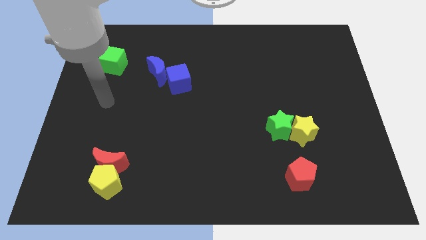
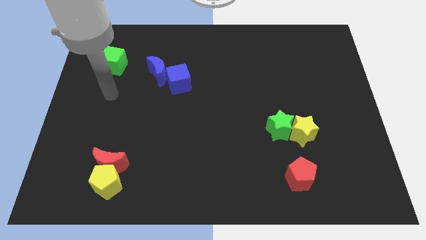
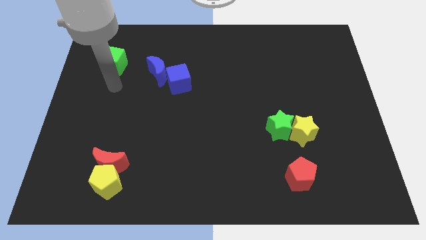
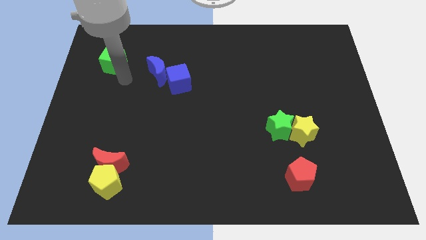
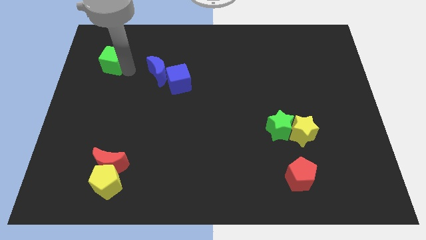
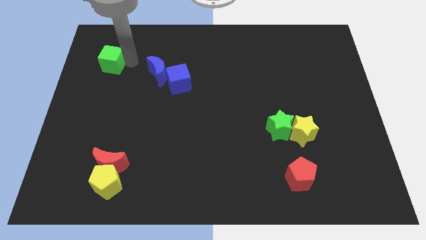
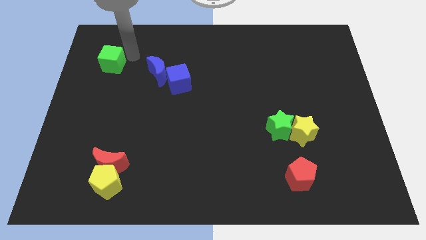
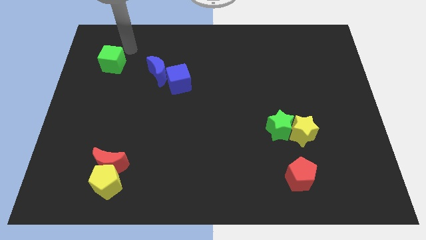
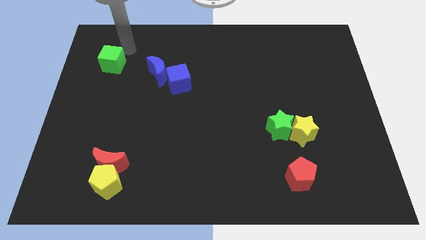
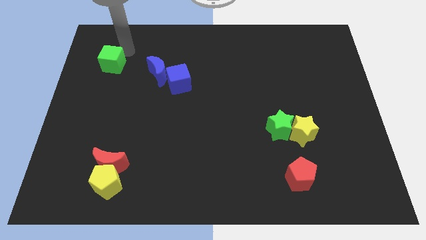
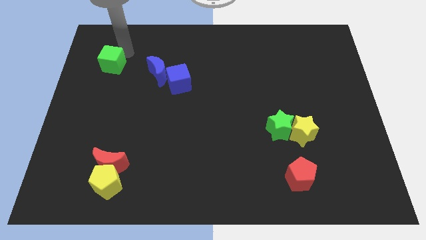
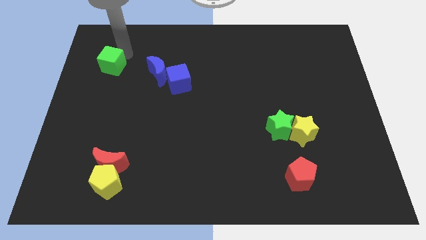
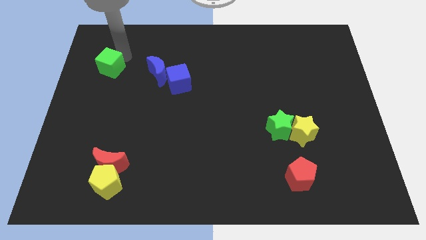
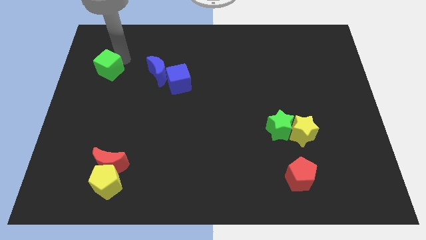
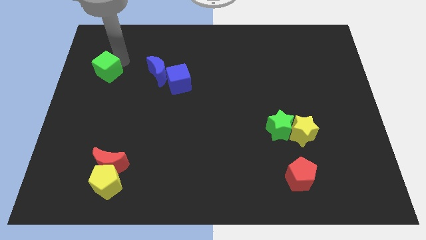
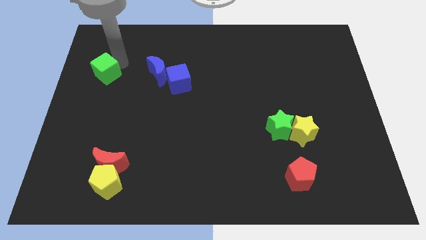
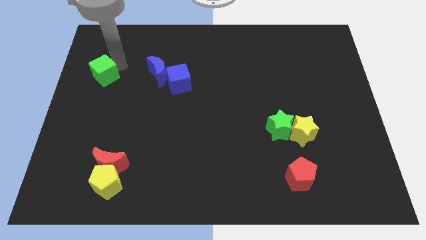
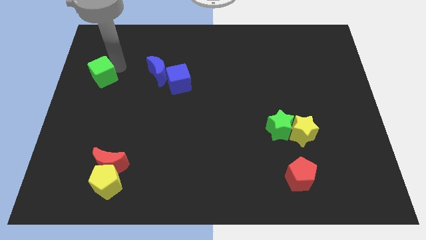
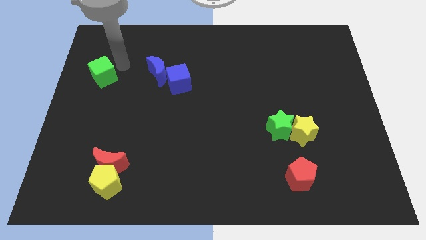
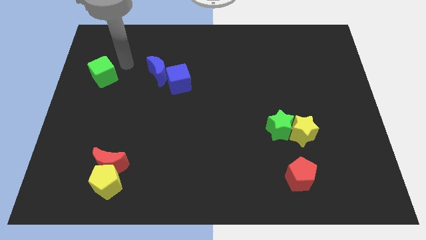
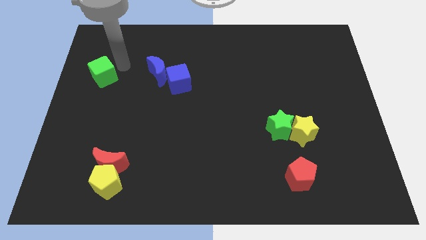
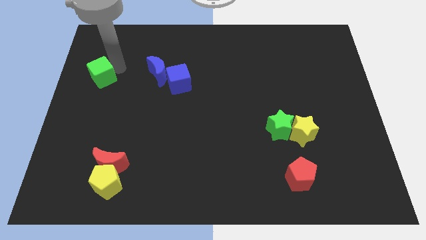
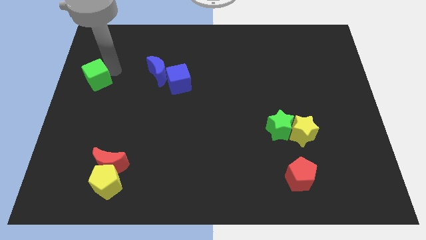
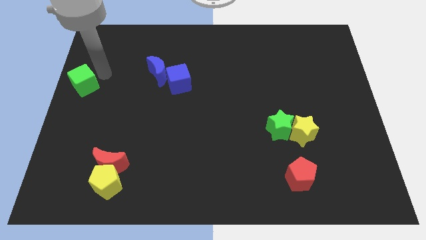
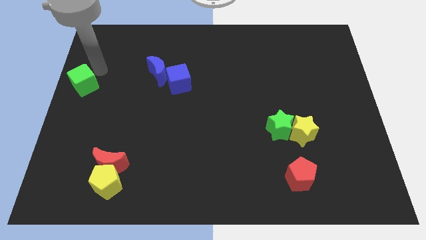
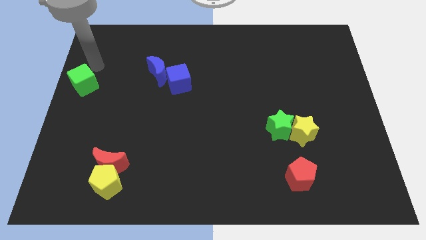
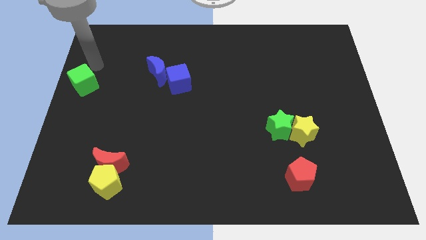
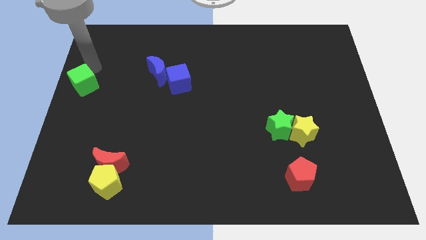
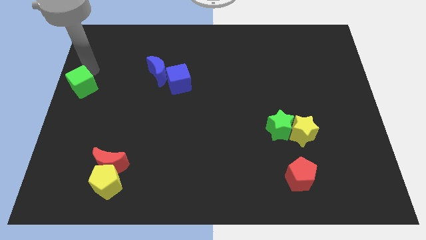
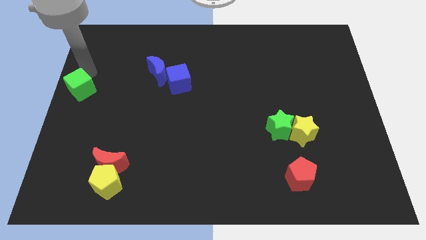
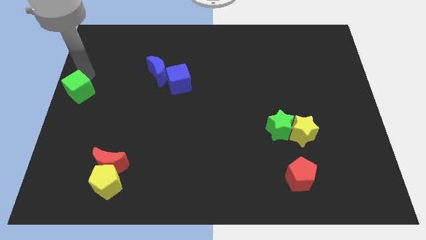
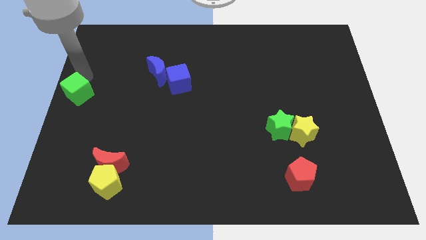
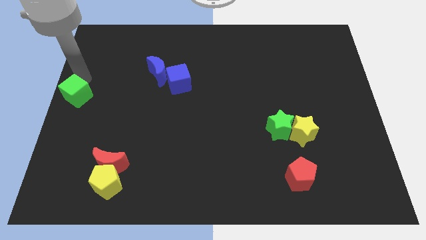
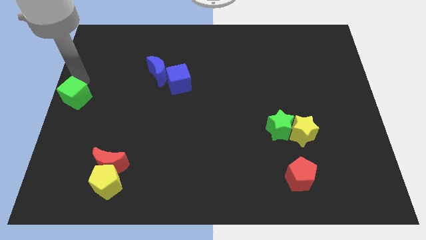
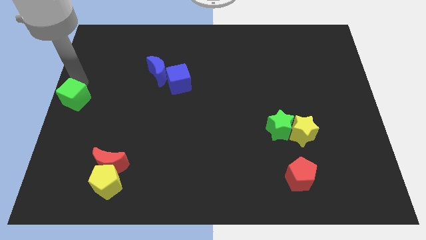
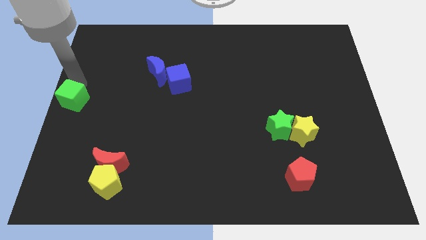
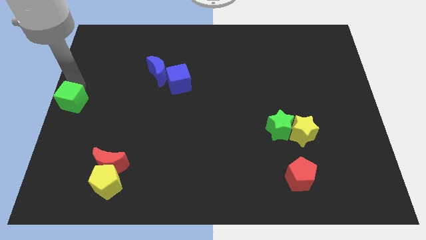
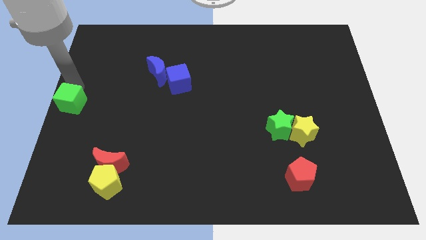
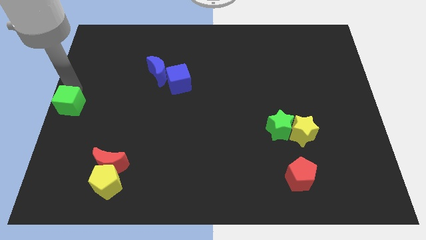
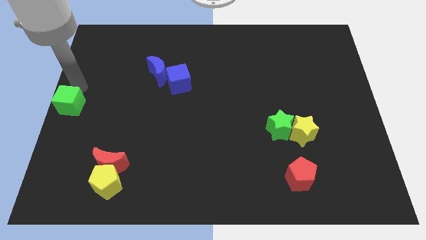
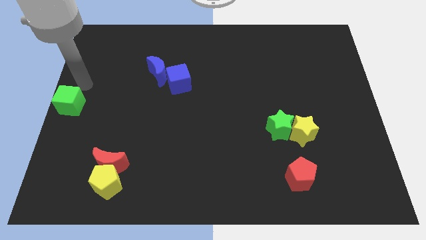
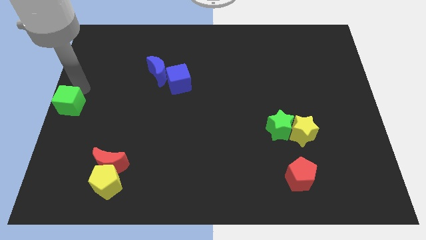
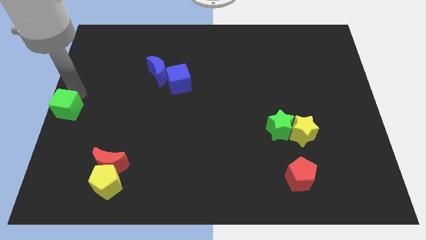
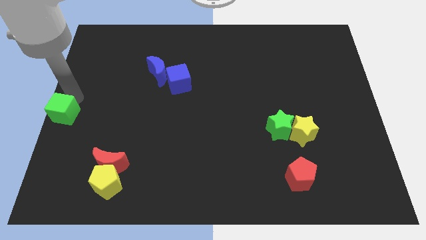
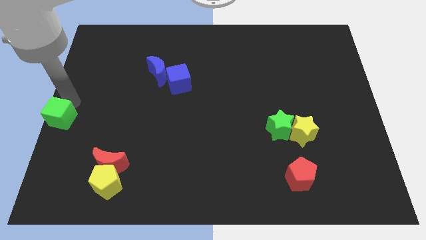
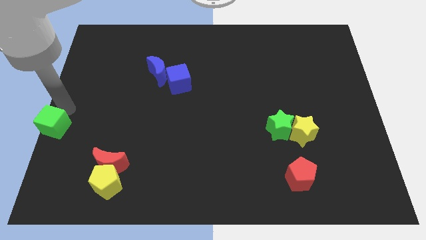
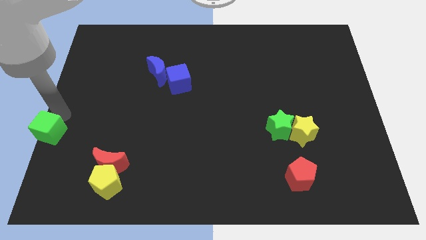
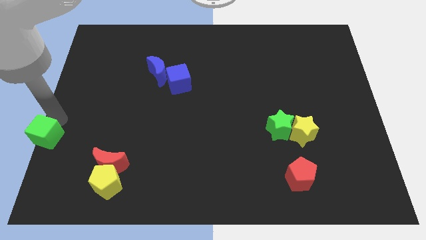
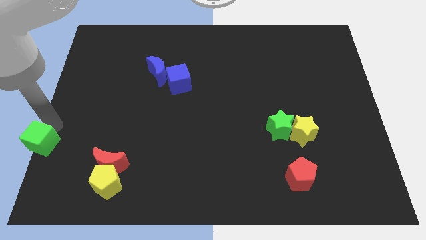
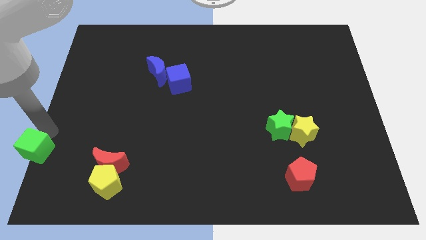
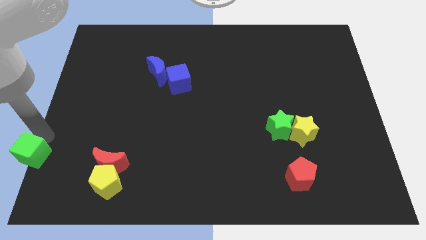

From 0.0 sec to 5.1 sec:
push the green cube to the bottom left corner

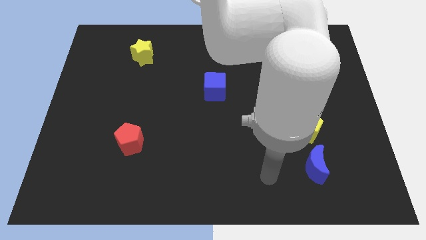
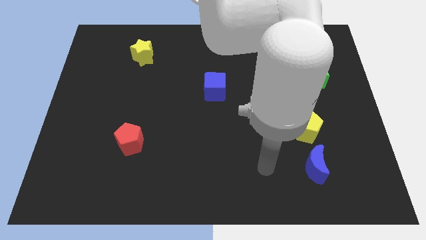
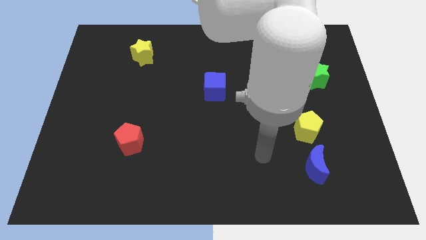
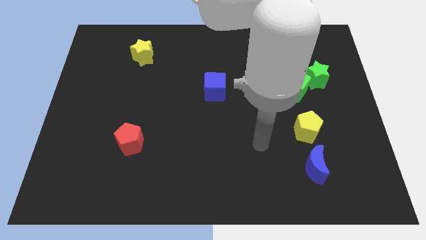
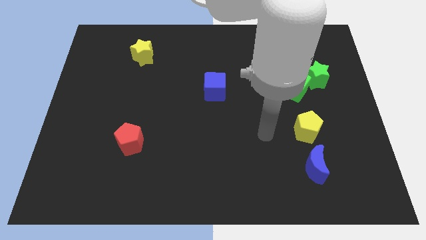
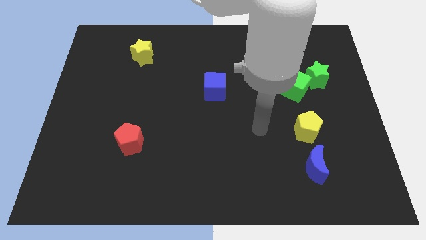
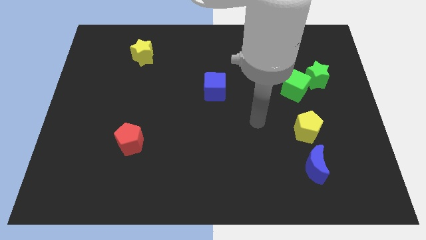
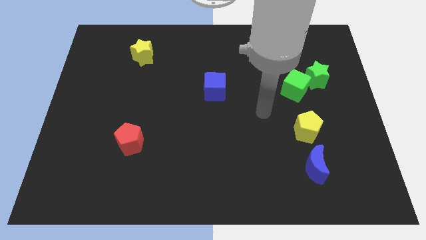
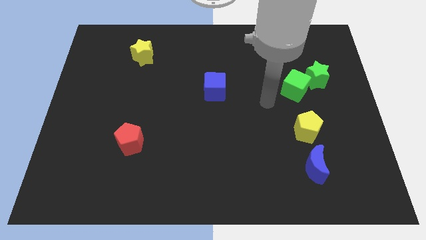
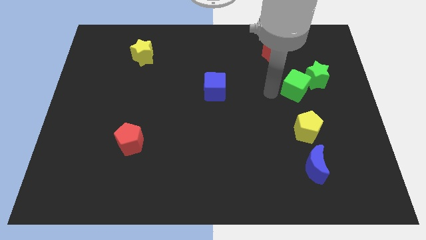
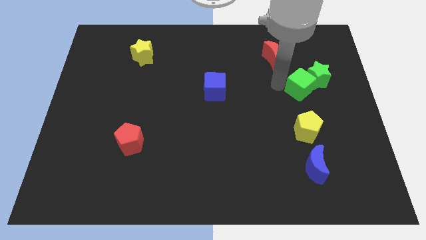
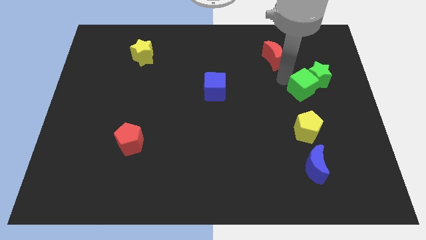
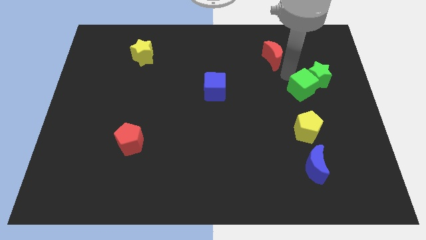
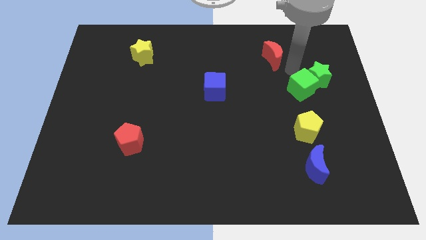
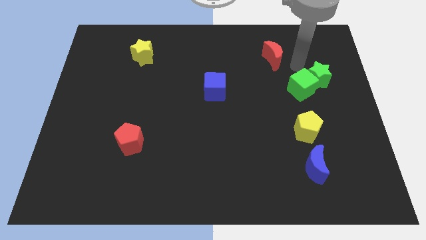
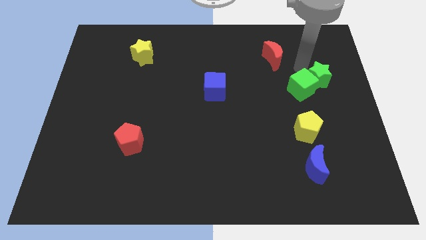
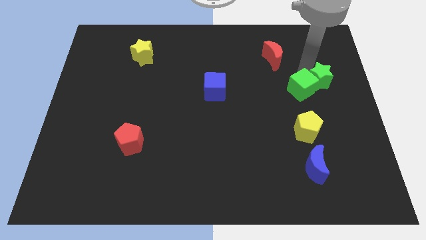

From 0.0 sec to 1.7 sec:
push the green star to the right side of the board
